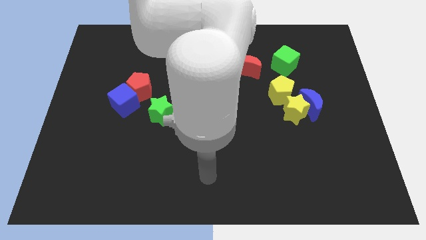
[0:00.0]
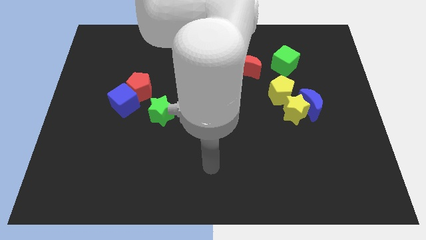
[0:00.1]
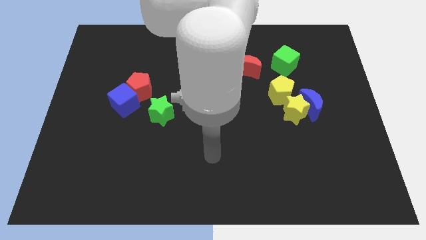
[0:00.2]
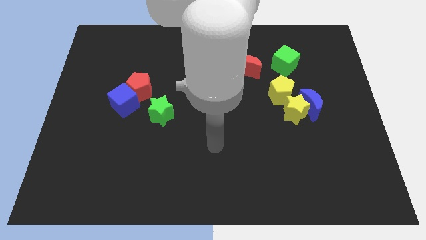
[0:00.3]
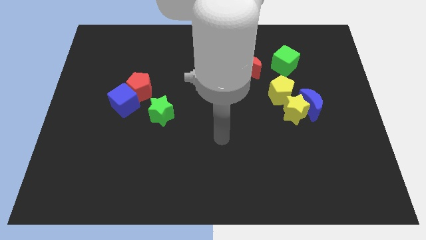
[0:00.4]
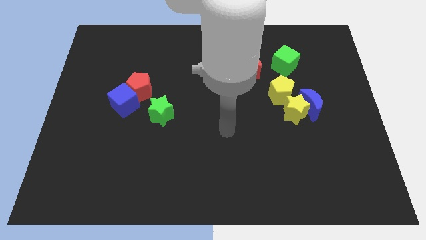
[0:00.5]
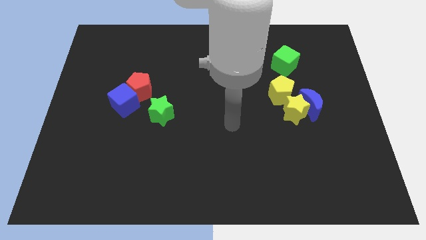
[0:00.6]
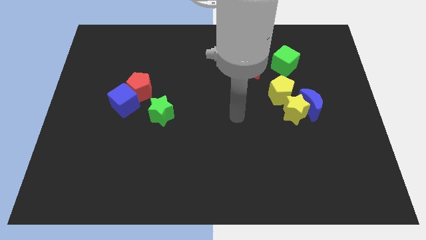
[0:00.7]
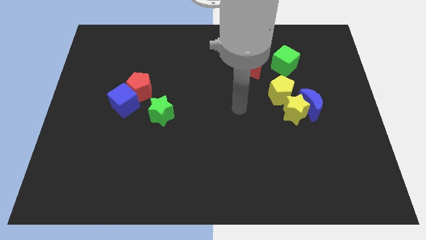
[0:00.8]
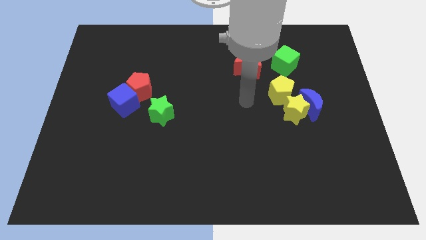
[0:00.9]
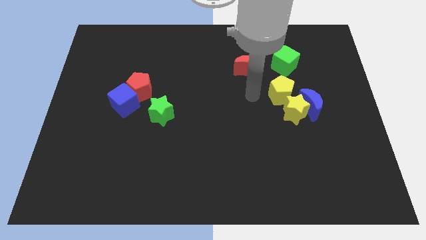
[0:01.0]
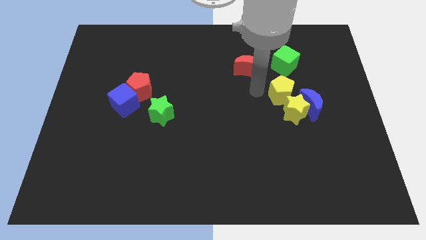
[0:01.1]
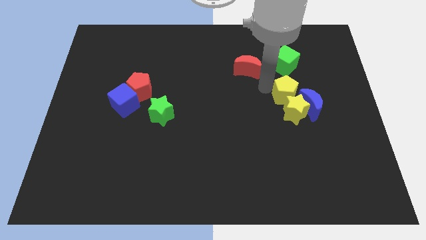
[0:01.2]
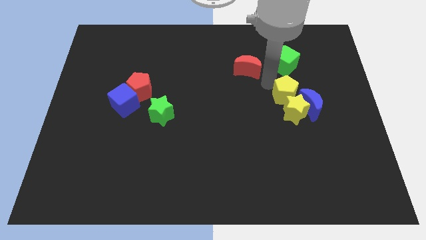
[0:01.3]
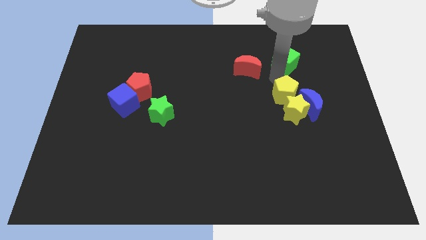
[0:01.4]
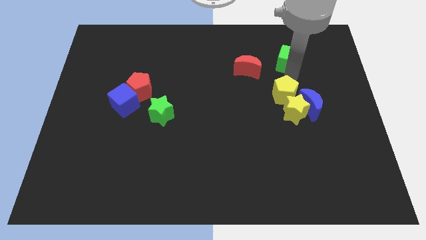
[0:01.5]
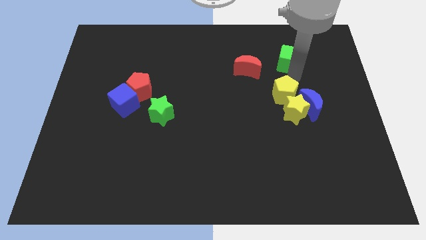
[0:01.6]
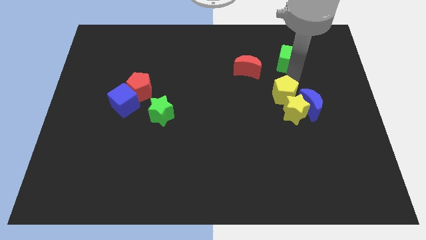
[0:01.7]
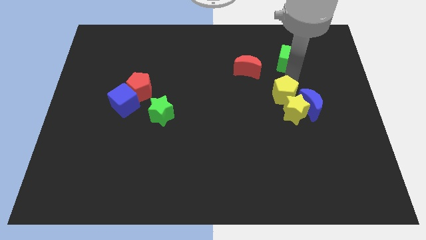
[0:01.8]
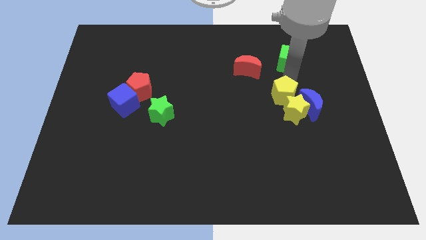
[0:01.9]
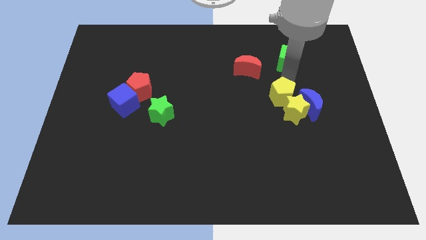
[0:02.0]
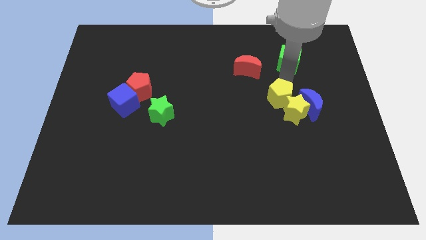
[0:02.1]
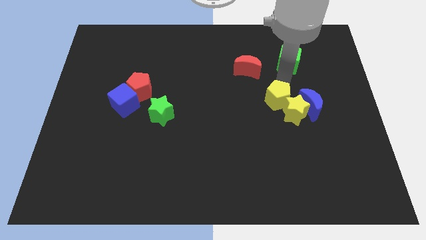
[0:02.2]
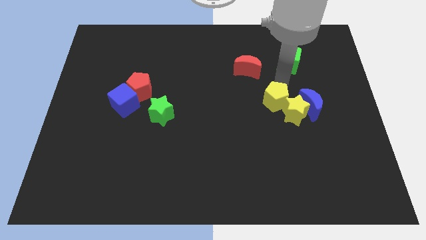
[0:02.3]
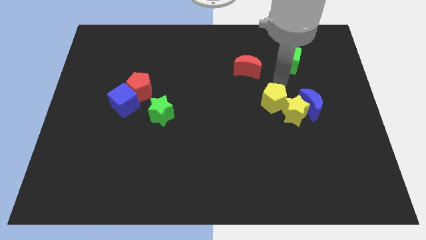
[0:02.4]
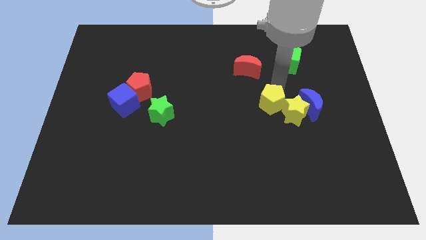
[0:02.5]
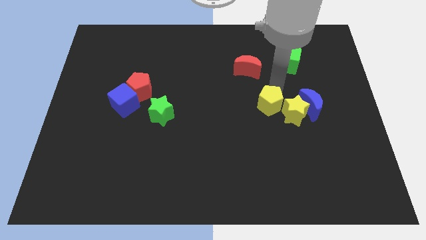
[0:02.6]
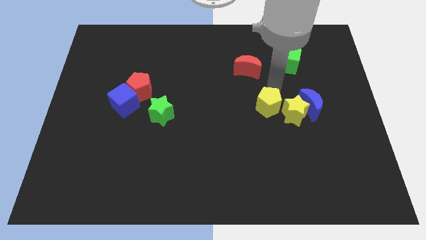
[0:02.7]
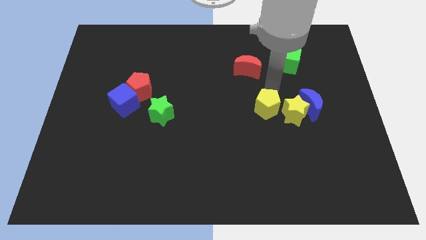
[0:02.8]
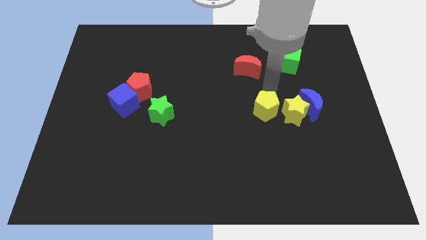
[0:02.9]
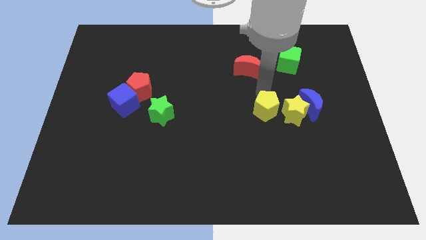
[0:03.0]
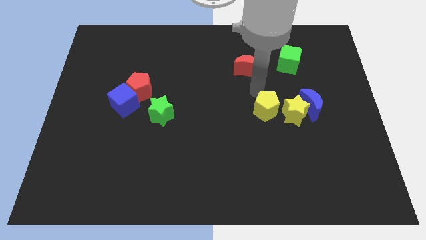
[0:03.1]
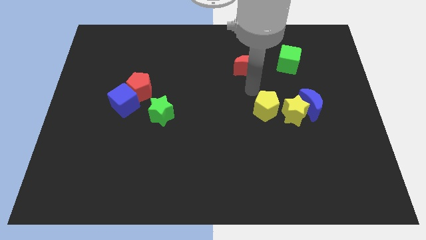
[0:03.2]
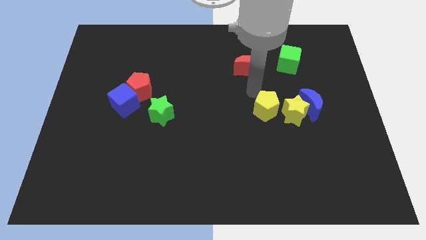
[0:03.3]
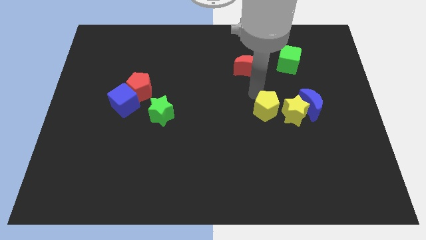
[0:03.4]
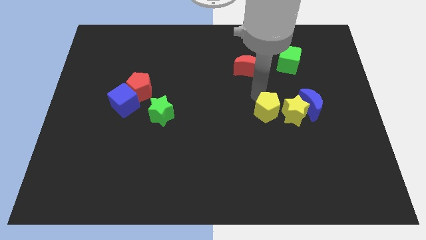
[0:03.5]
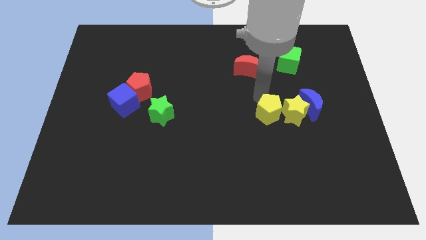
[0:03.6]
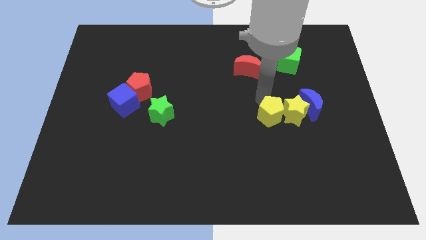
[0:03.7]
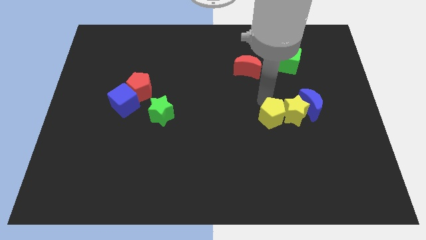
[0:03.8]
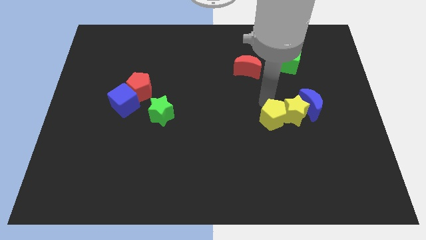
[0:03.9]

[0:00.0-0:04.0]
push the yellow pentagon somewhat down

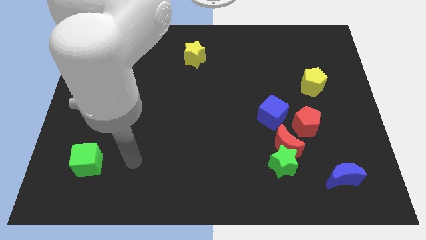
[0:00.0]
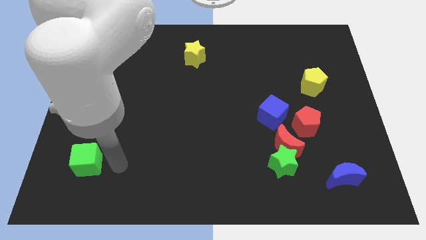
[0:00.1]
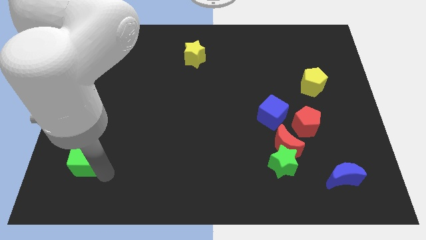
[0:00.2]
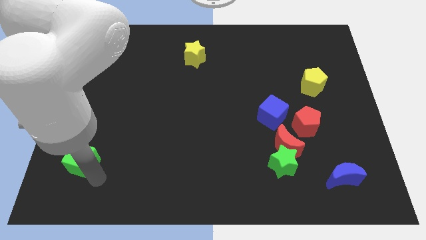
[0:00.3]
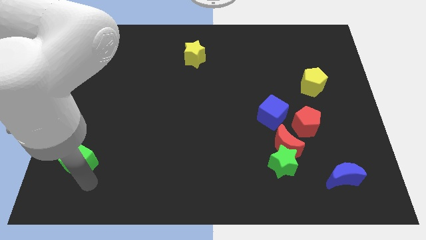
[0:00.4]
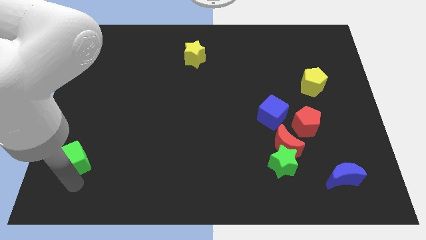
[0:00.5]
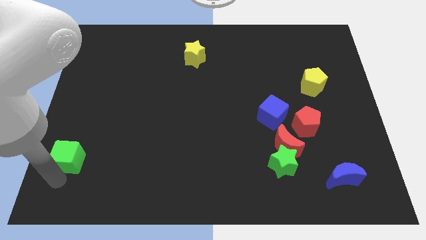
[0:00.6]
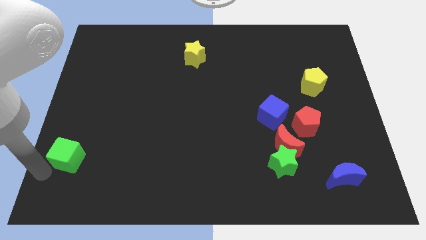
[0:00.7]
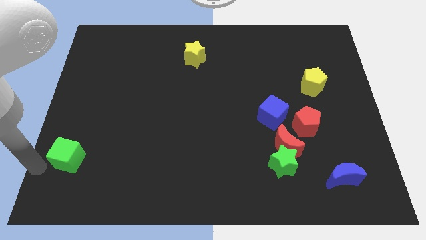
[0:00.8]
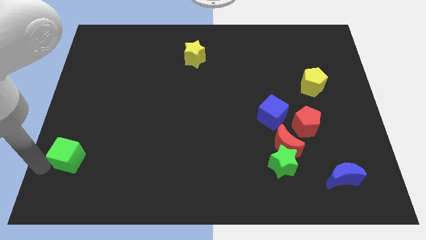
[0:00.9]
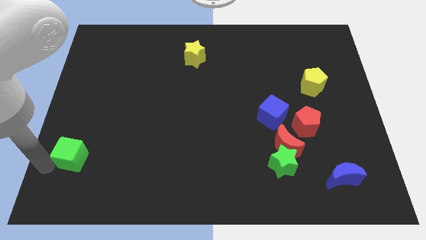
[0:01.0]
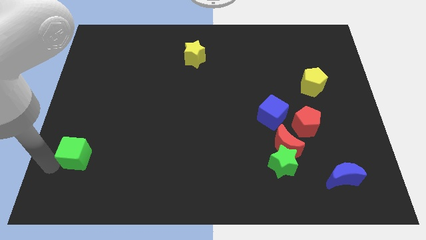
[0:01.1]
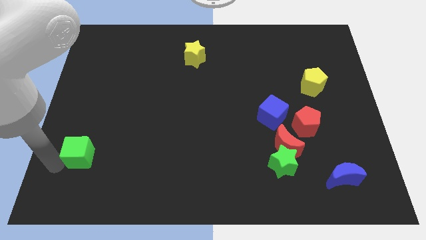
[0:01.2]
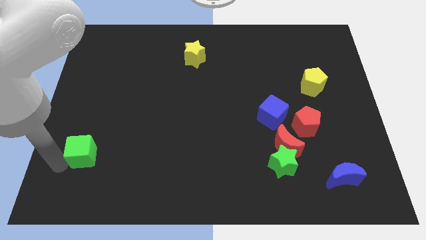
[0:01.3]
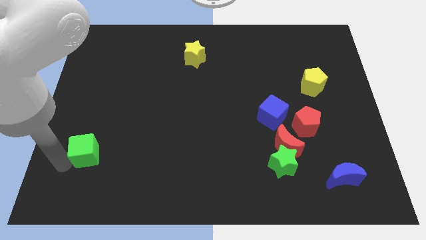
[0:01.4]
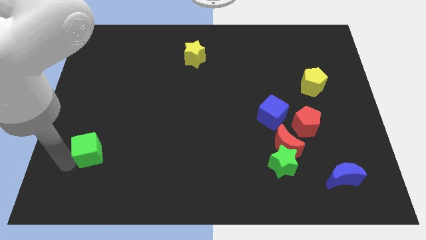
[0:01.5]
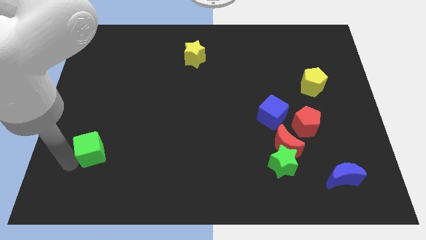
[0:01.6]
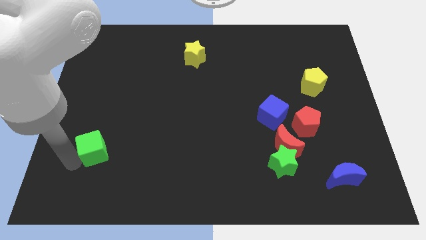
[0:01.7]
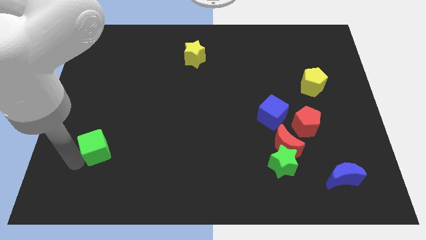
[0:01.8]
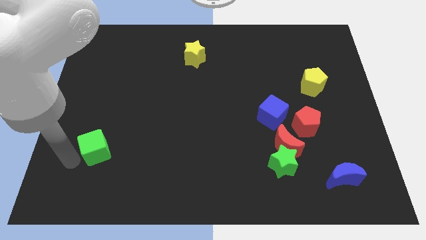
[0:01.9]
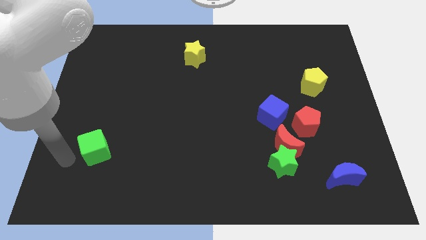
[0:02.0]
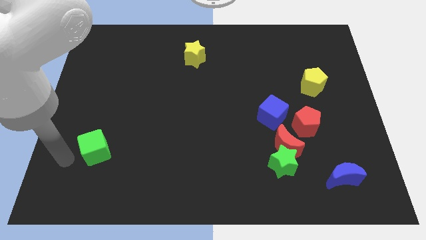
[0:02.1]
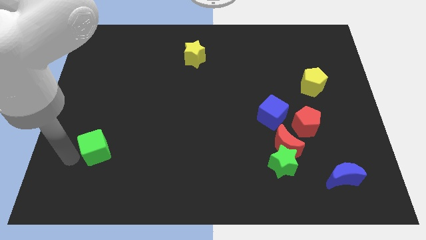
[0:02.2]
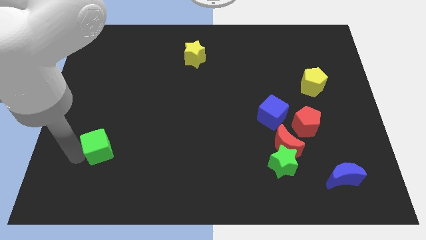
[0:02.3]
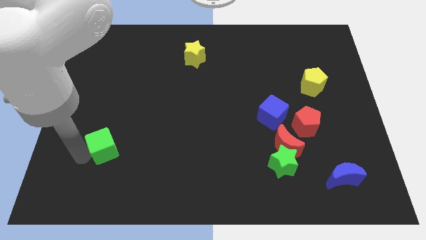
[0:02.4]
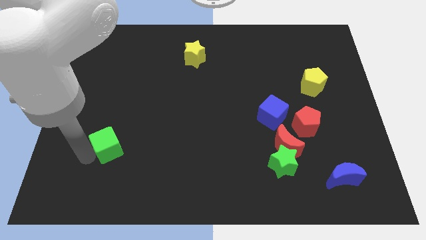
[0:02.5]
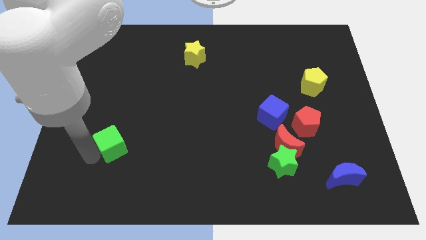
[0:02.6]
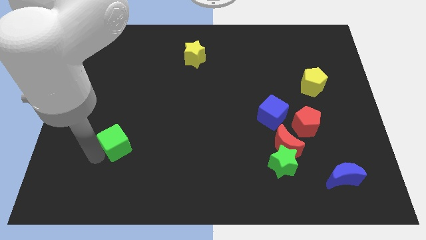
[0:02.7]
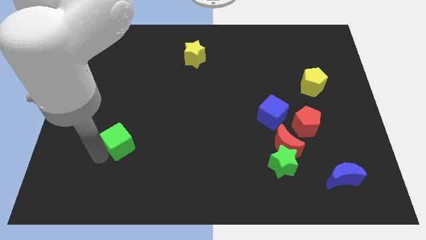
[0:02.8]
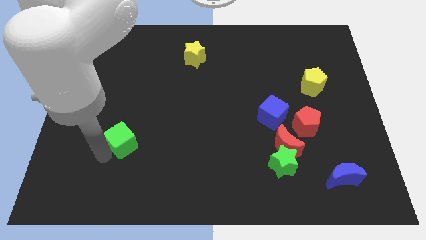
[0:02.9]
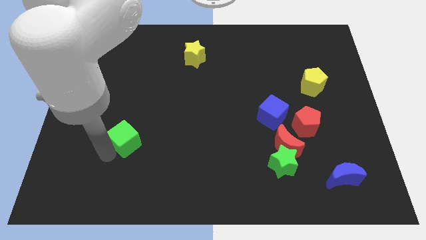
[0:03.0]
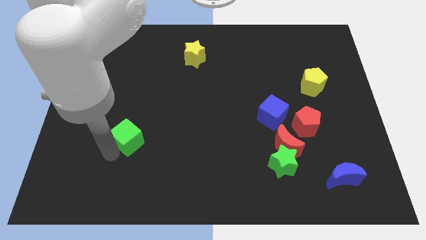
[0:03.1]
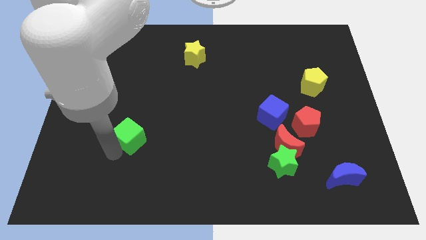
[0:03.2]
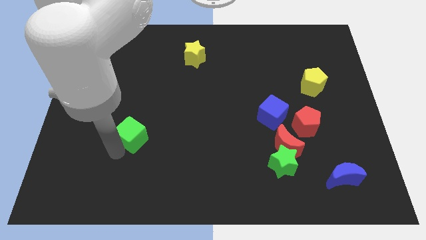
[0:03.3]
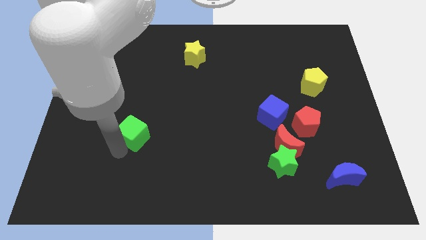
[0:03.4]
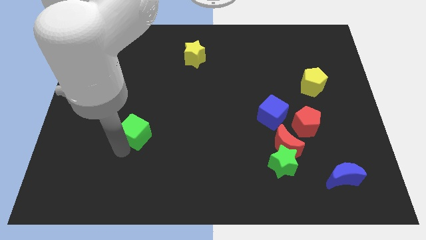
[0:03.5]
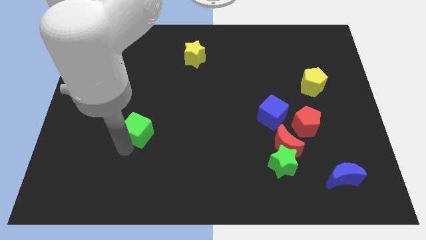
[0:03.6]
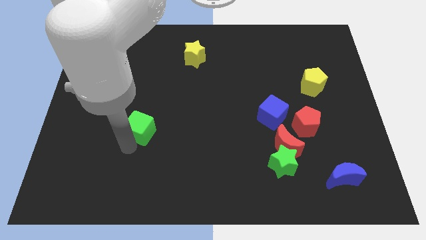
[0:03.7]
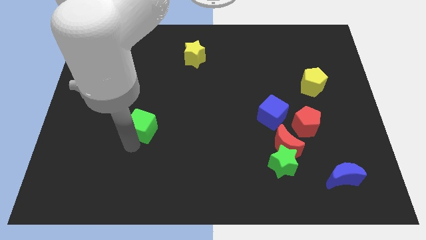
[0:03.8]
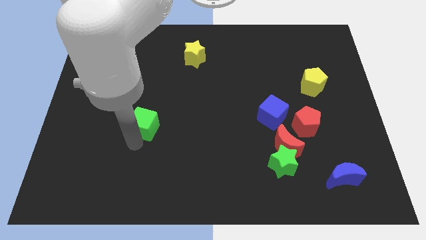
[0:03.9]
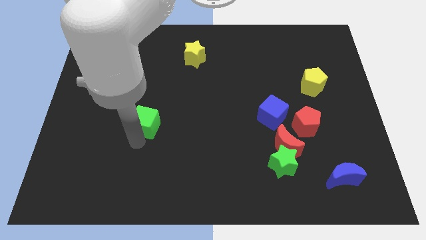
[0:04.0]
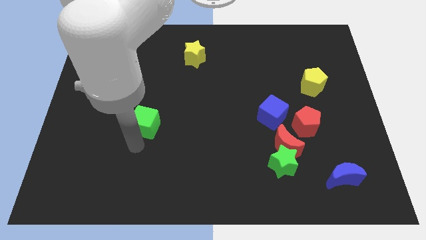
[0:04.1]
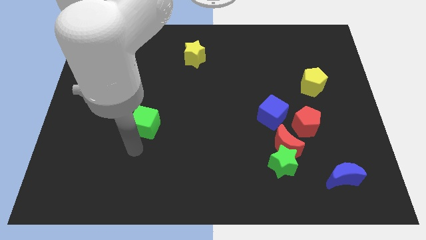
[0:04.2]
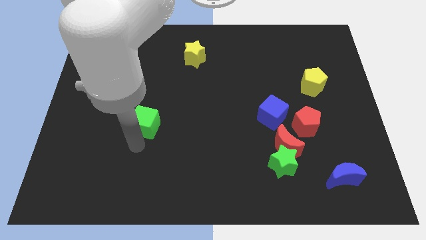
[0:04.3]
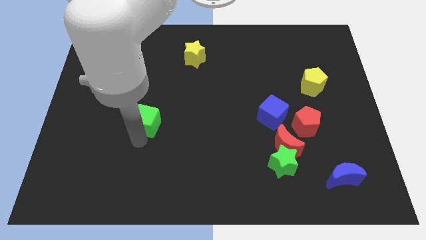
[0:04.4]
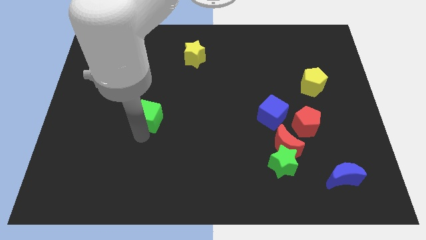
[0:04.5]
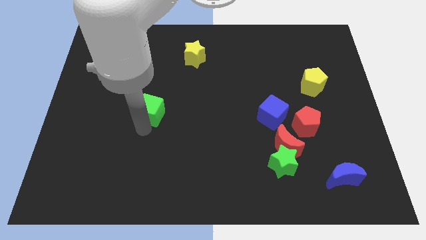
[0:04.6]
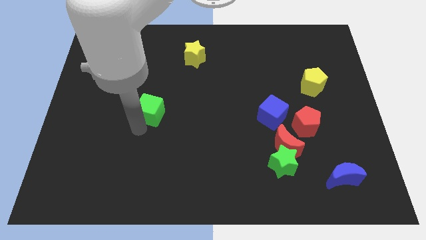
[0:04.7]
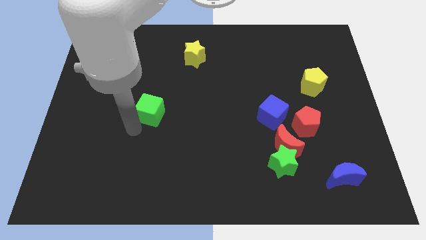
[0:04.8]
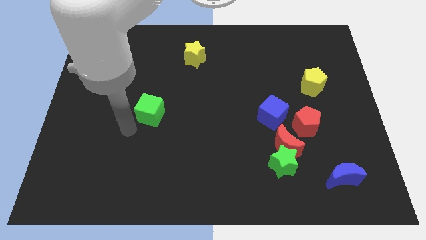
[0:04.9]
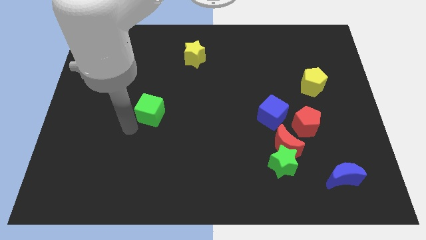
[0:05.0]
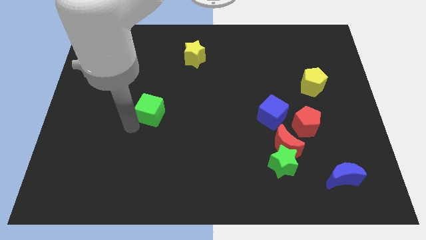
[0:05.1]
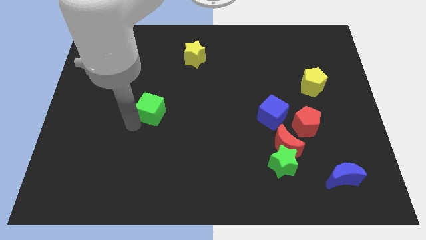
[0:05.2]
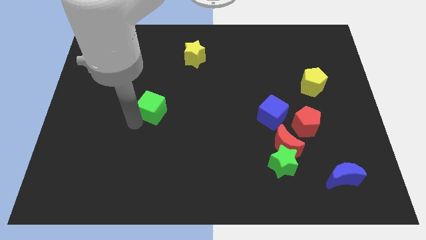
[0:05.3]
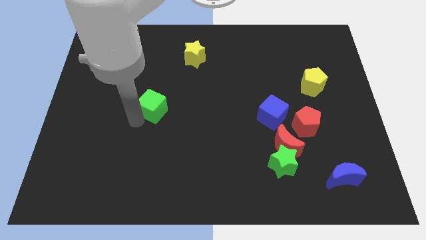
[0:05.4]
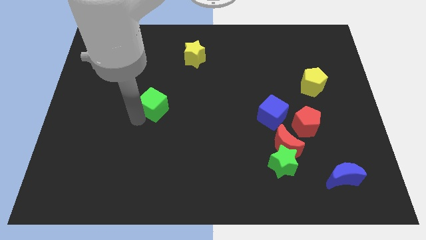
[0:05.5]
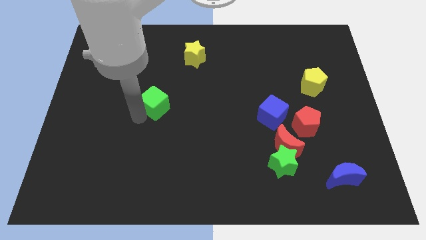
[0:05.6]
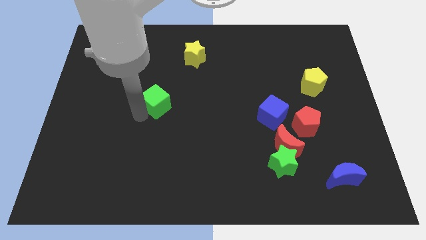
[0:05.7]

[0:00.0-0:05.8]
slide the green cube upwards and then to the right
